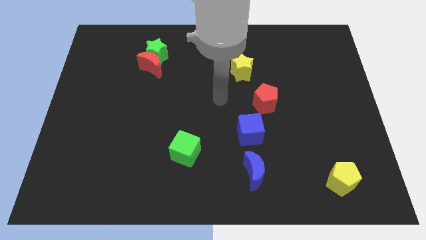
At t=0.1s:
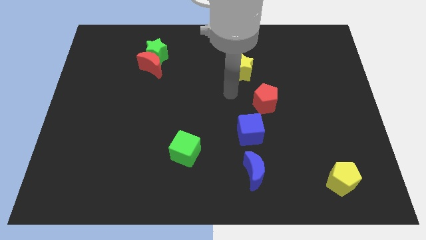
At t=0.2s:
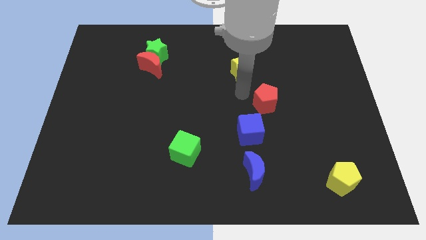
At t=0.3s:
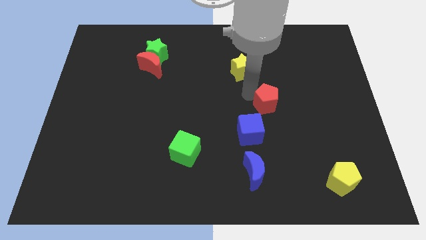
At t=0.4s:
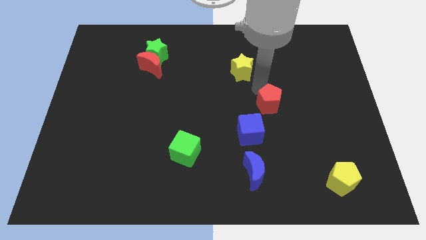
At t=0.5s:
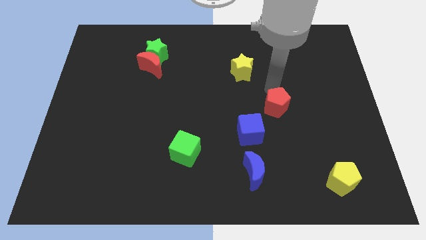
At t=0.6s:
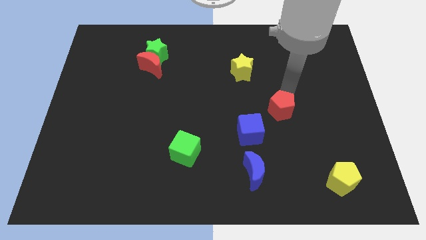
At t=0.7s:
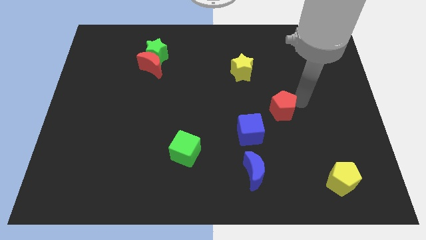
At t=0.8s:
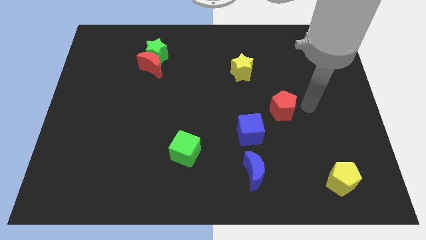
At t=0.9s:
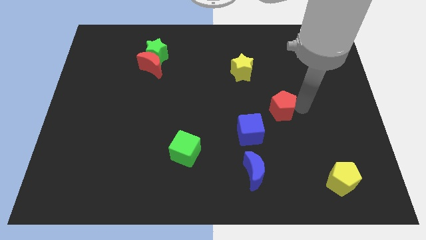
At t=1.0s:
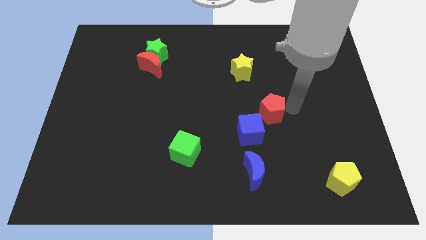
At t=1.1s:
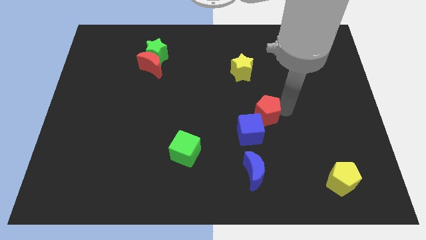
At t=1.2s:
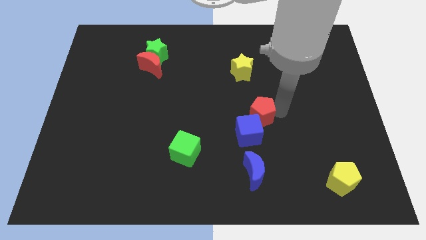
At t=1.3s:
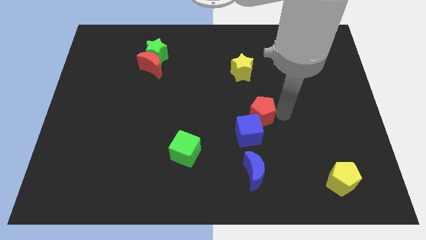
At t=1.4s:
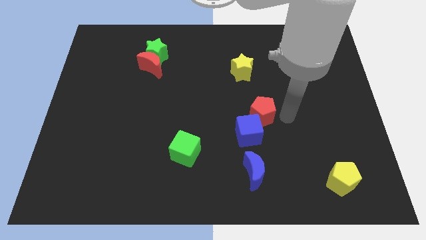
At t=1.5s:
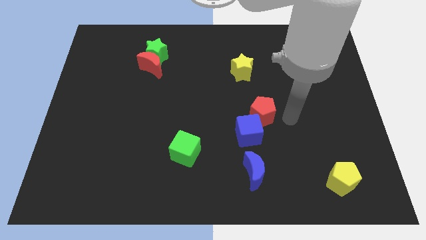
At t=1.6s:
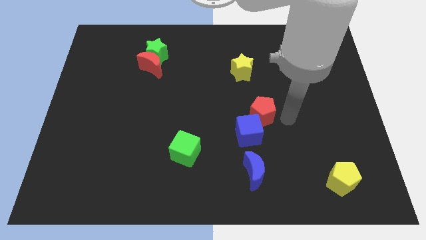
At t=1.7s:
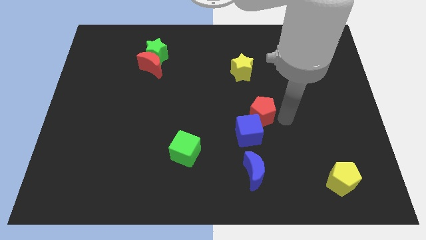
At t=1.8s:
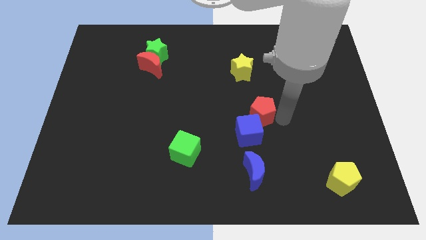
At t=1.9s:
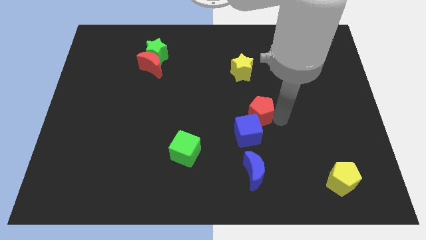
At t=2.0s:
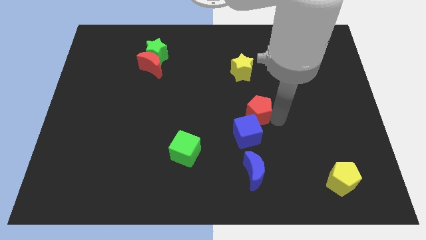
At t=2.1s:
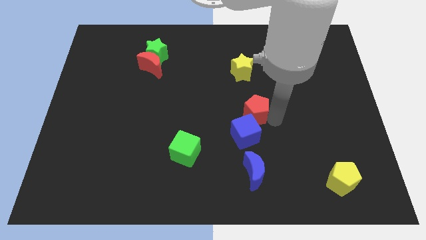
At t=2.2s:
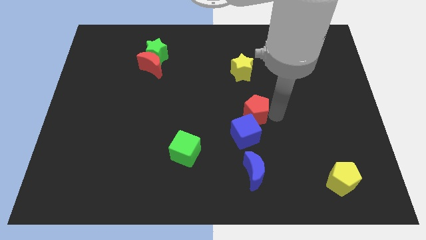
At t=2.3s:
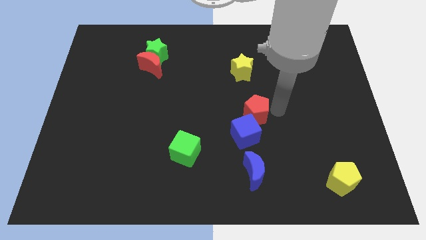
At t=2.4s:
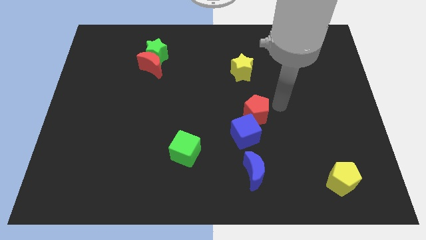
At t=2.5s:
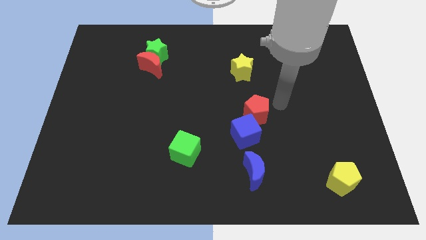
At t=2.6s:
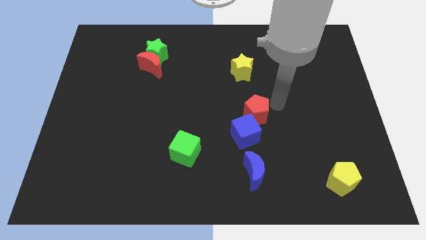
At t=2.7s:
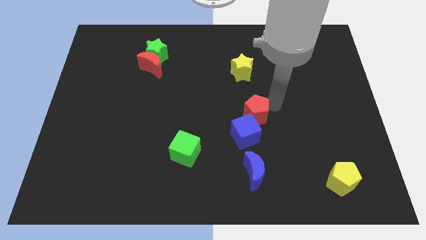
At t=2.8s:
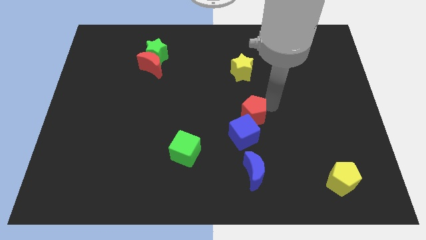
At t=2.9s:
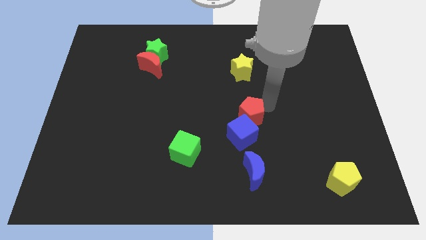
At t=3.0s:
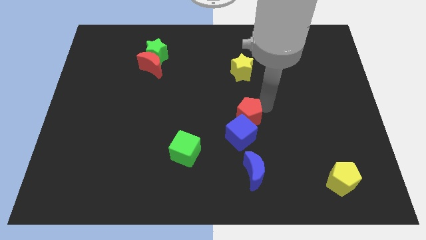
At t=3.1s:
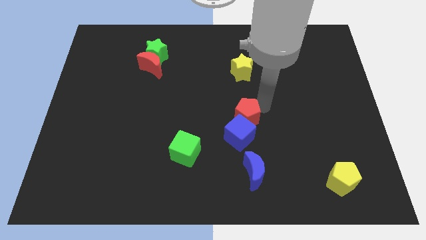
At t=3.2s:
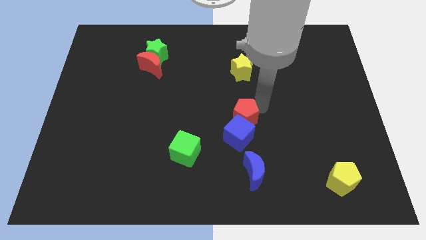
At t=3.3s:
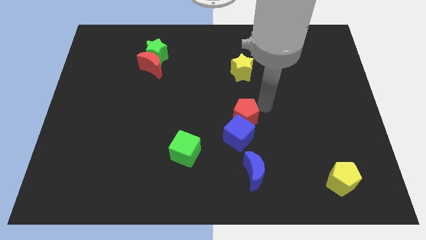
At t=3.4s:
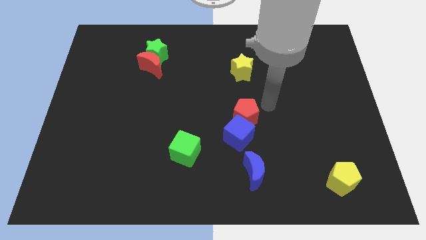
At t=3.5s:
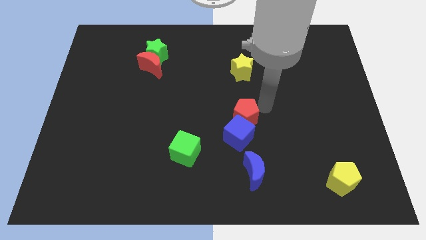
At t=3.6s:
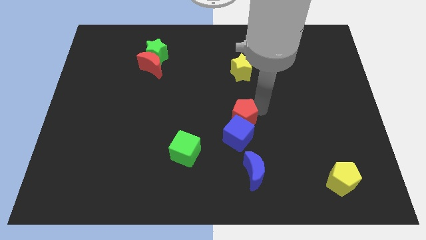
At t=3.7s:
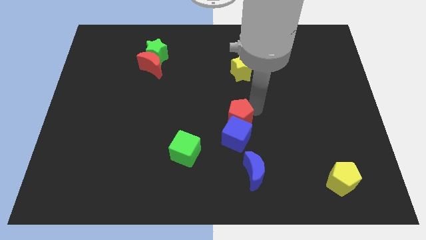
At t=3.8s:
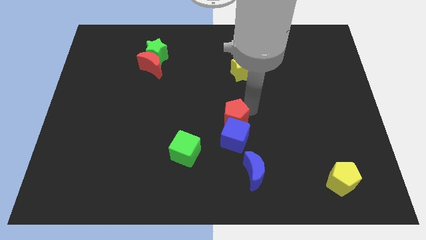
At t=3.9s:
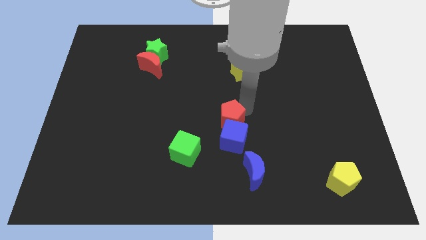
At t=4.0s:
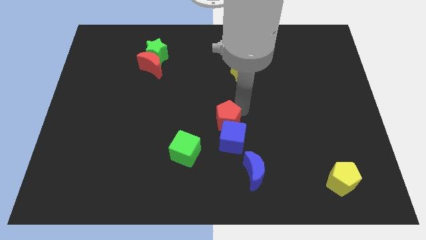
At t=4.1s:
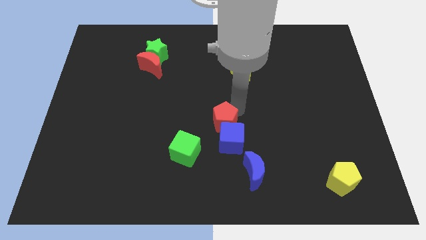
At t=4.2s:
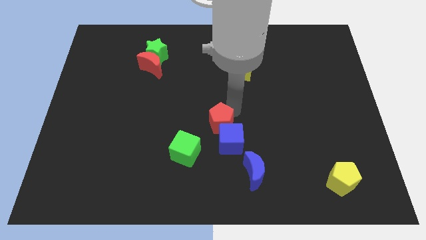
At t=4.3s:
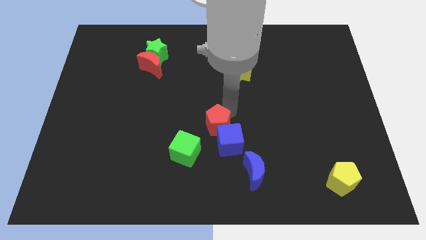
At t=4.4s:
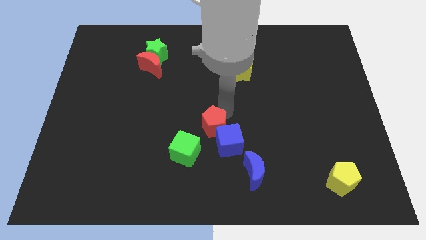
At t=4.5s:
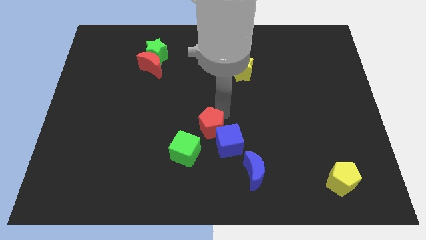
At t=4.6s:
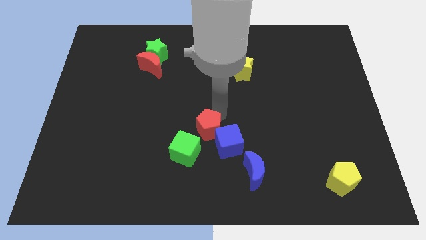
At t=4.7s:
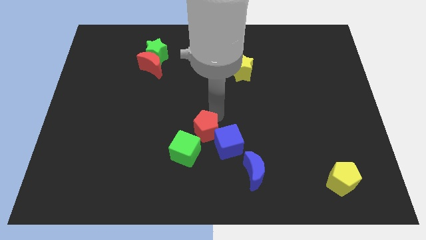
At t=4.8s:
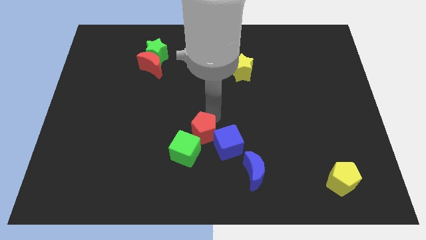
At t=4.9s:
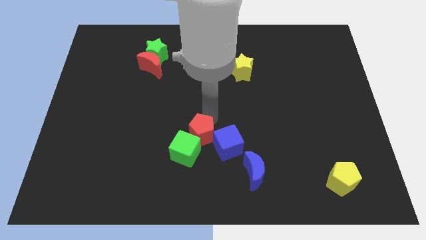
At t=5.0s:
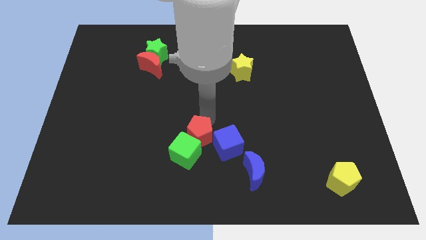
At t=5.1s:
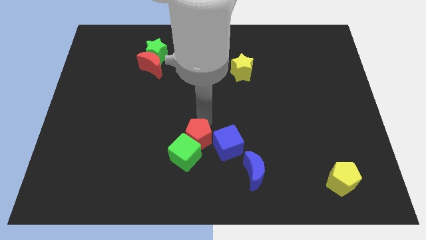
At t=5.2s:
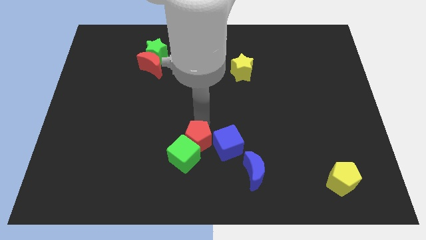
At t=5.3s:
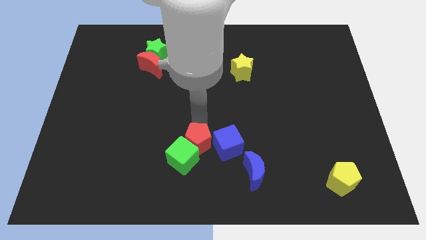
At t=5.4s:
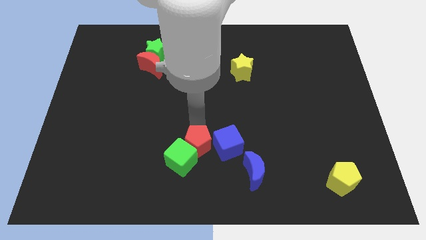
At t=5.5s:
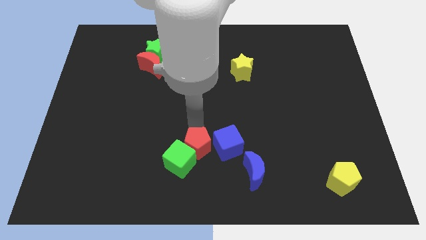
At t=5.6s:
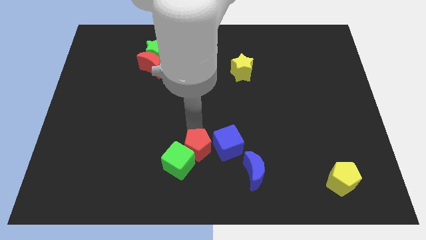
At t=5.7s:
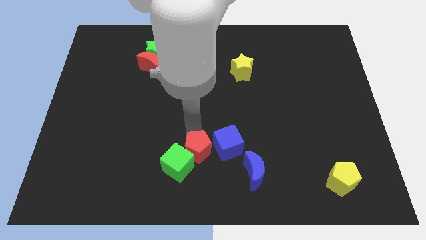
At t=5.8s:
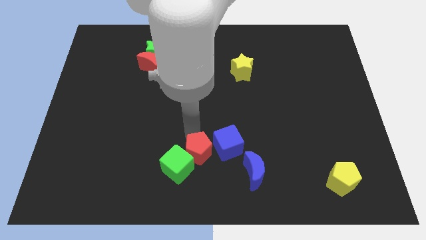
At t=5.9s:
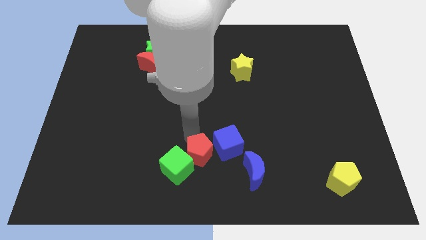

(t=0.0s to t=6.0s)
move the red pentagon to the left side of the blue moon

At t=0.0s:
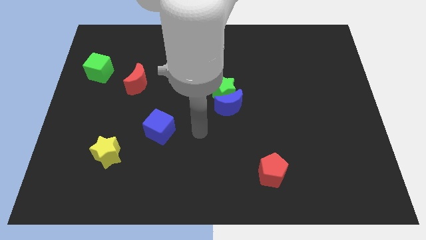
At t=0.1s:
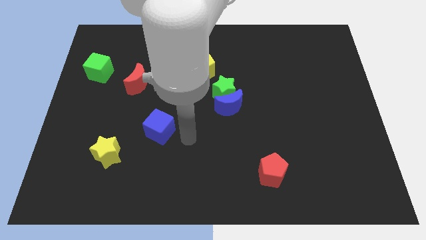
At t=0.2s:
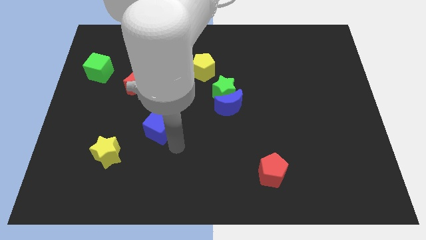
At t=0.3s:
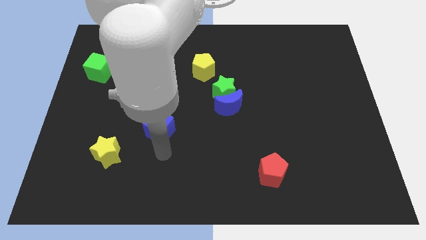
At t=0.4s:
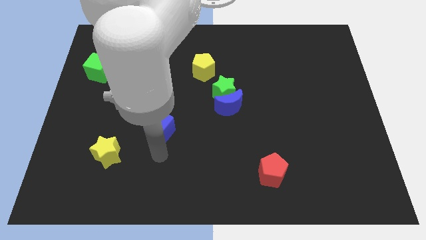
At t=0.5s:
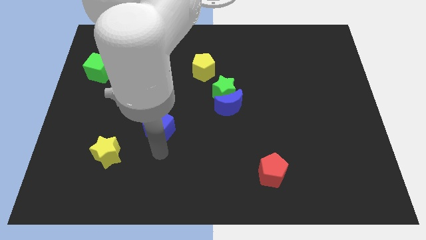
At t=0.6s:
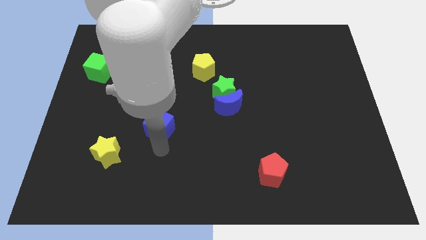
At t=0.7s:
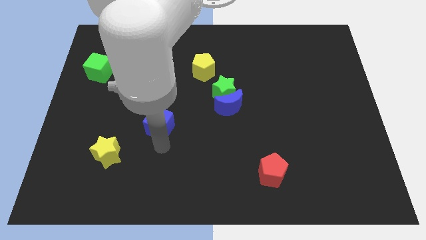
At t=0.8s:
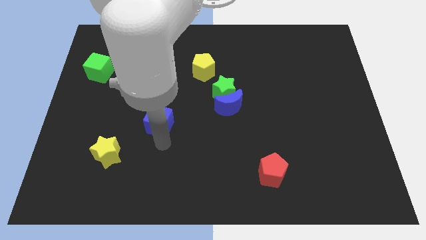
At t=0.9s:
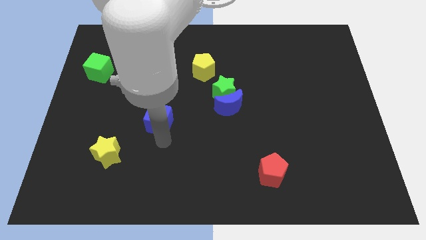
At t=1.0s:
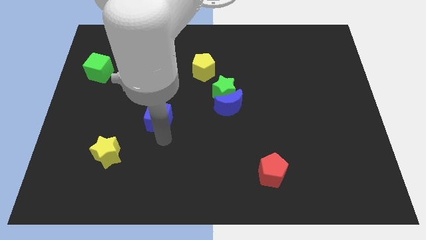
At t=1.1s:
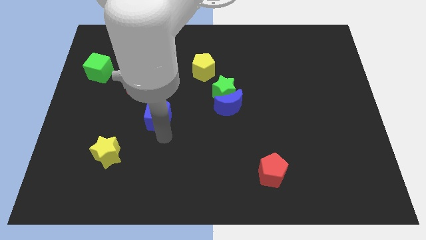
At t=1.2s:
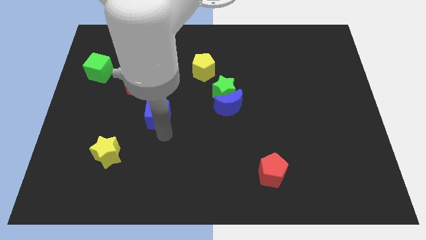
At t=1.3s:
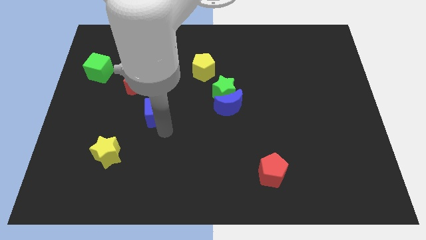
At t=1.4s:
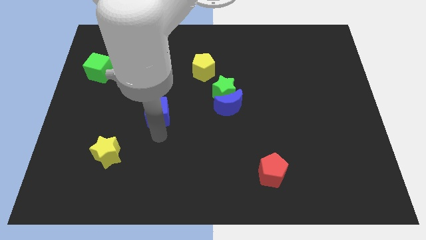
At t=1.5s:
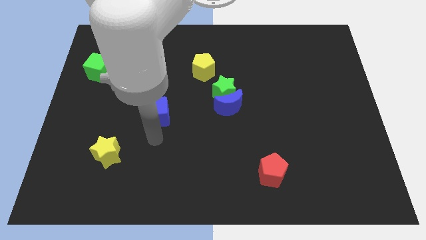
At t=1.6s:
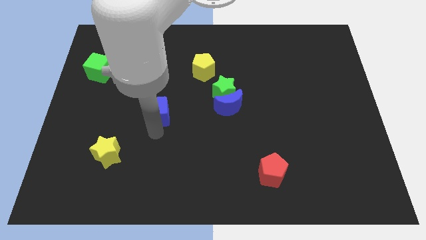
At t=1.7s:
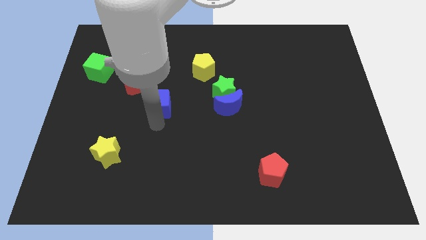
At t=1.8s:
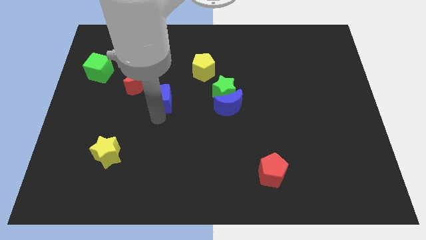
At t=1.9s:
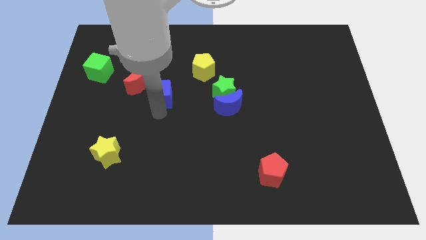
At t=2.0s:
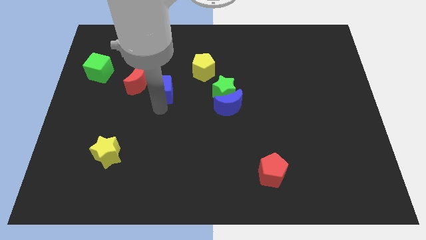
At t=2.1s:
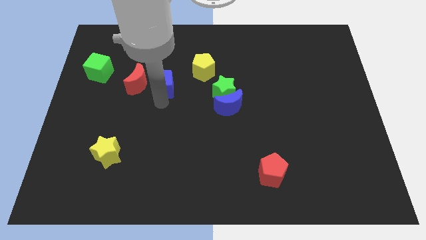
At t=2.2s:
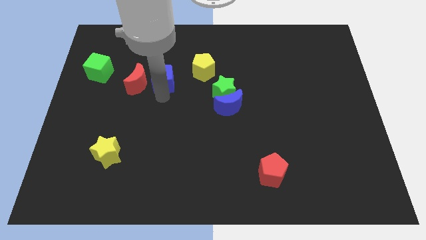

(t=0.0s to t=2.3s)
put the blue cube just left of the yellow pentagon
